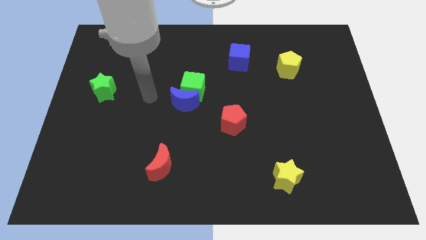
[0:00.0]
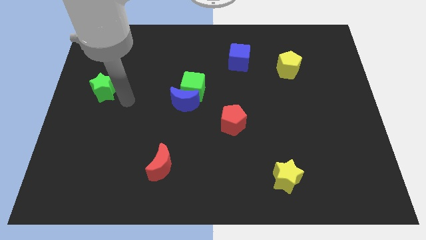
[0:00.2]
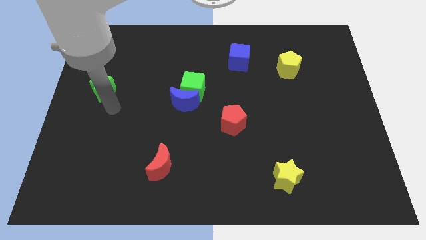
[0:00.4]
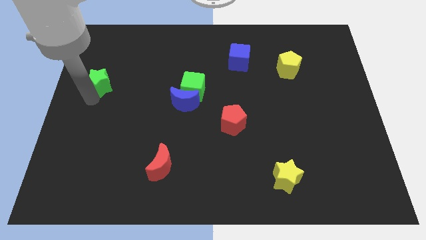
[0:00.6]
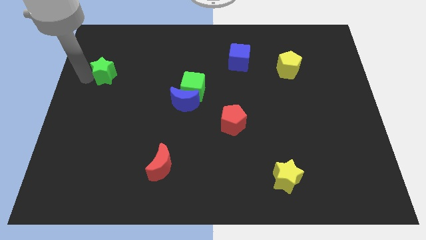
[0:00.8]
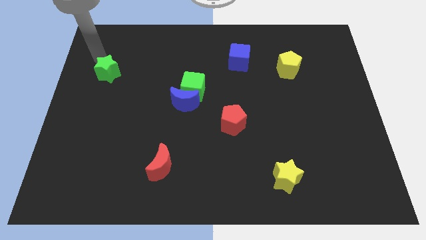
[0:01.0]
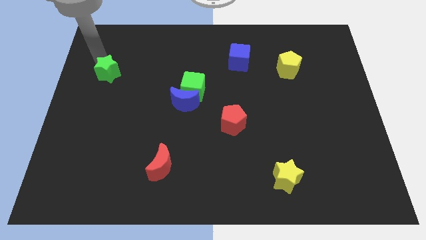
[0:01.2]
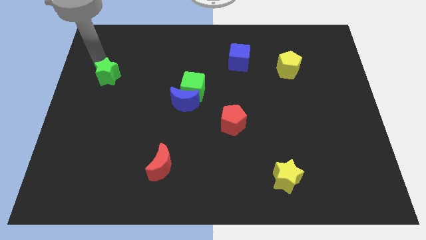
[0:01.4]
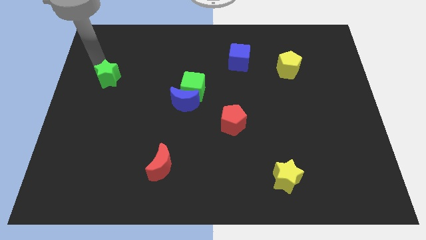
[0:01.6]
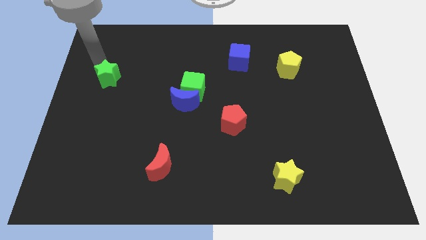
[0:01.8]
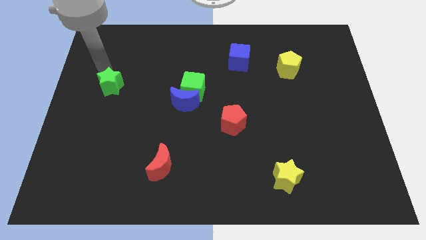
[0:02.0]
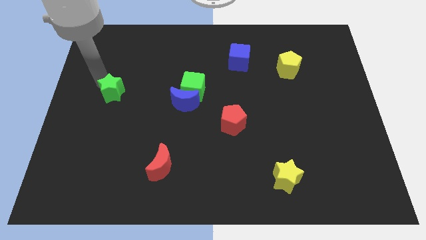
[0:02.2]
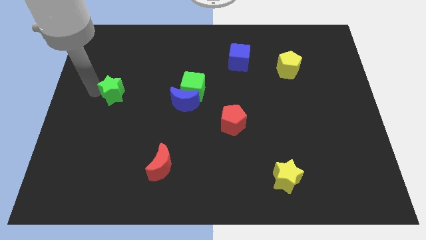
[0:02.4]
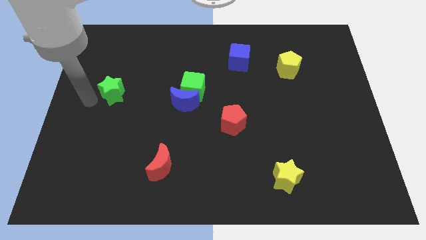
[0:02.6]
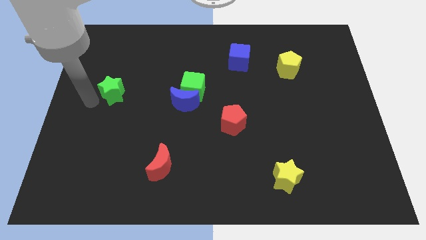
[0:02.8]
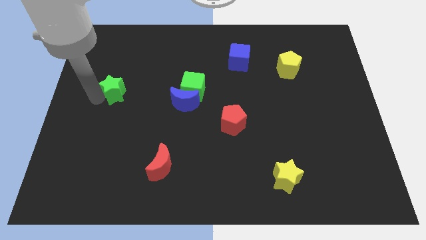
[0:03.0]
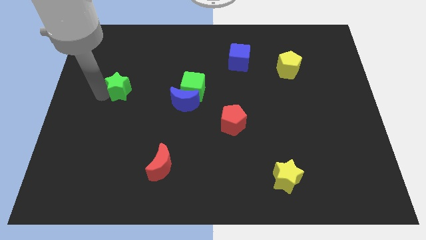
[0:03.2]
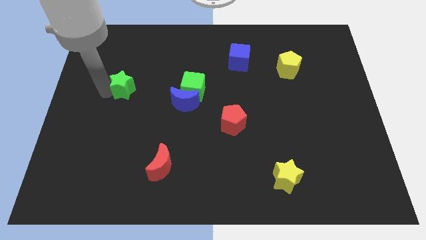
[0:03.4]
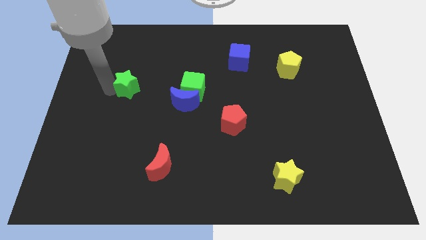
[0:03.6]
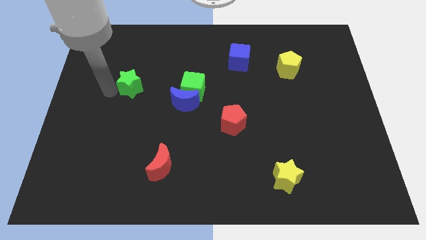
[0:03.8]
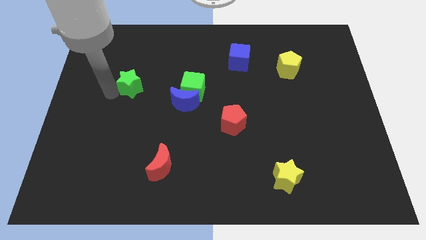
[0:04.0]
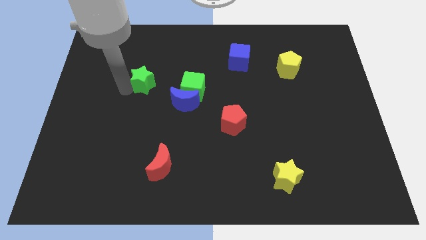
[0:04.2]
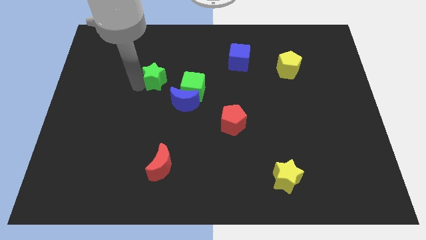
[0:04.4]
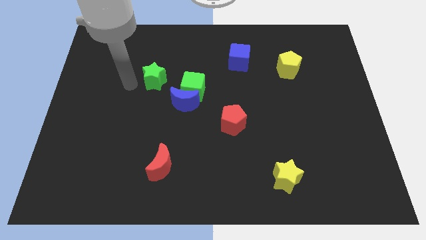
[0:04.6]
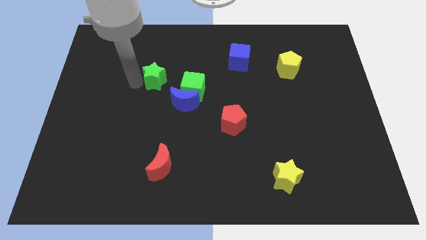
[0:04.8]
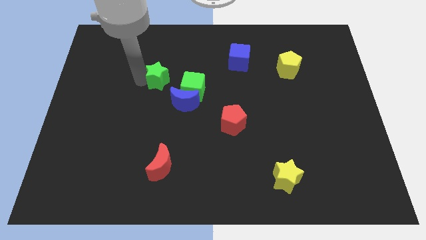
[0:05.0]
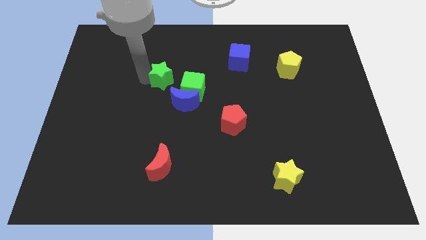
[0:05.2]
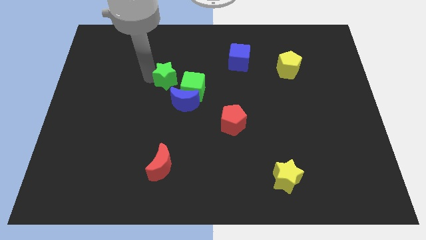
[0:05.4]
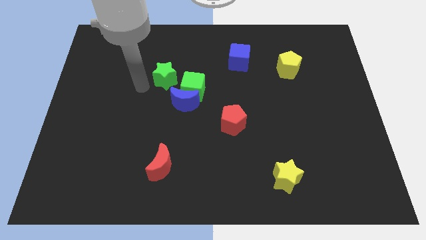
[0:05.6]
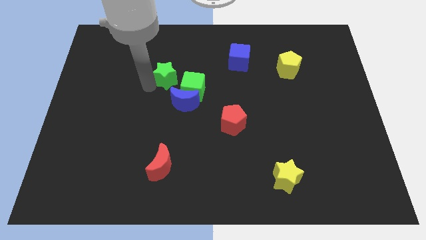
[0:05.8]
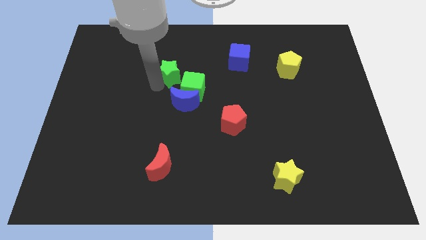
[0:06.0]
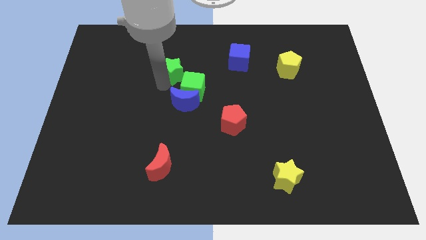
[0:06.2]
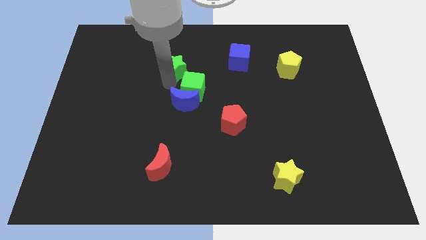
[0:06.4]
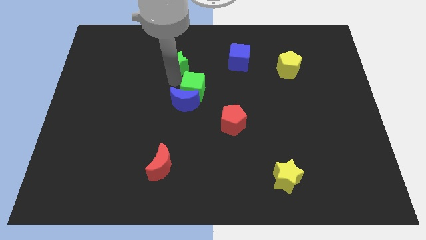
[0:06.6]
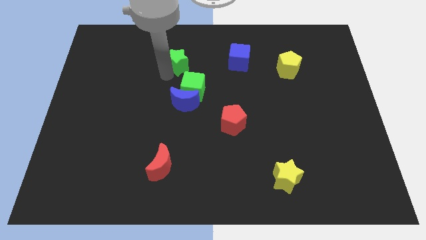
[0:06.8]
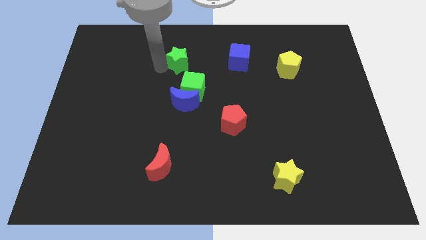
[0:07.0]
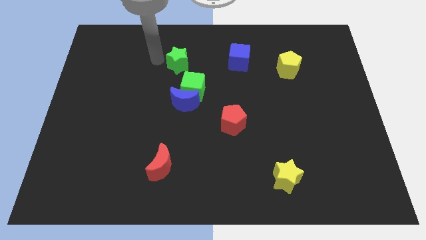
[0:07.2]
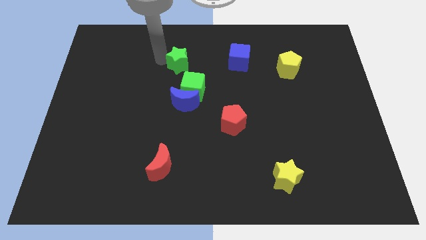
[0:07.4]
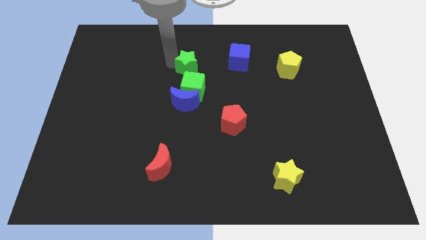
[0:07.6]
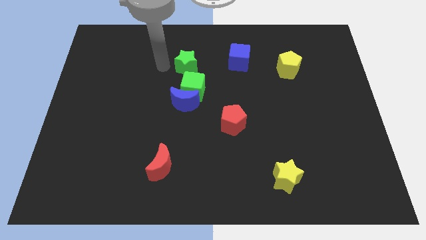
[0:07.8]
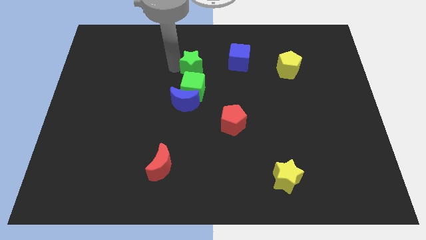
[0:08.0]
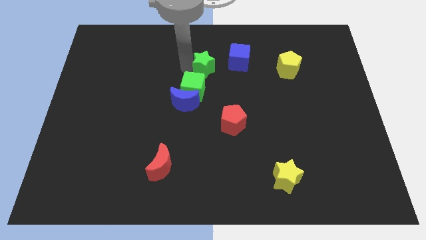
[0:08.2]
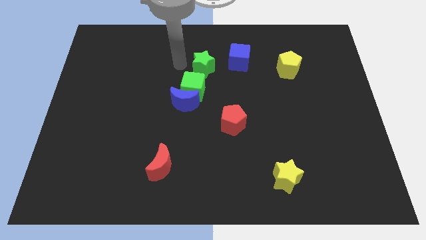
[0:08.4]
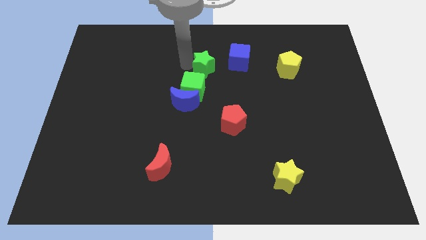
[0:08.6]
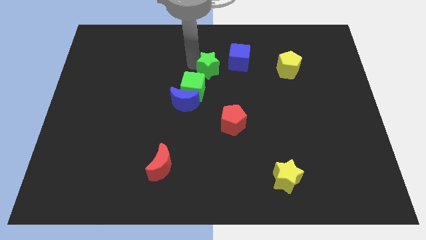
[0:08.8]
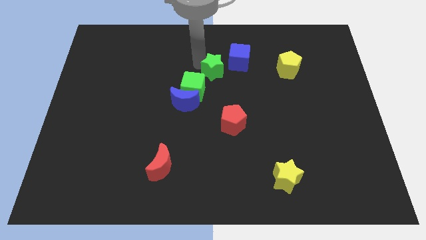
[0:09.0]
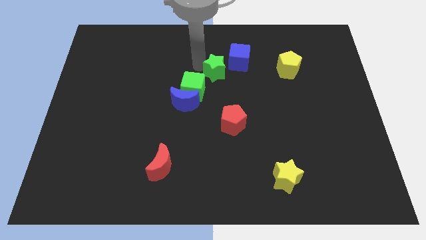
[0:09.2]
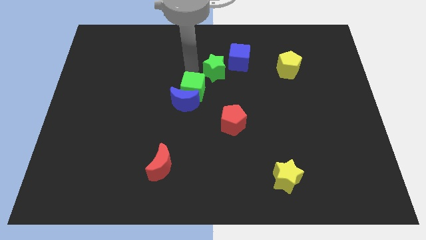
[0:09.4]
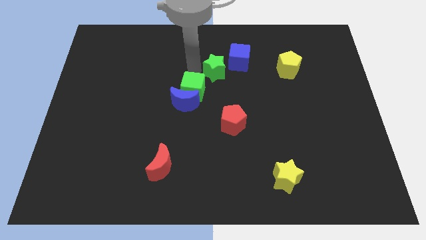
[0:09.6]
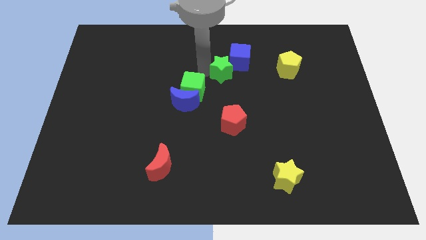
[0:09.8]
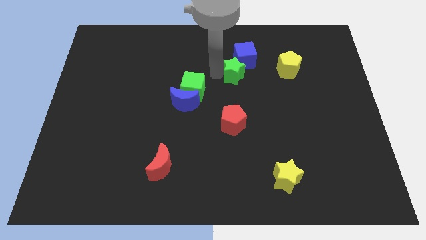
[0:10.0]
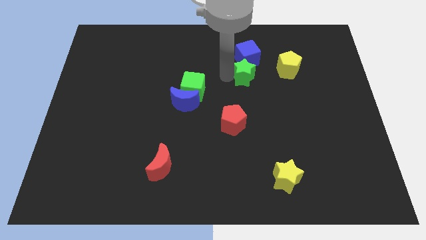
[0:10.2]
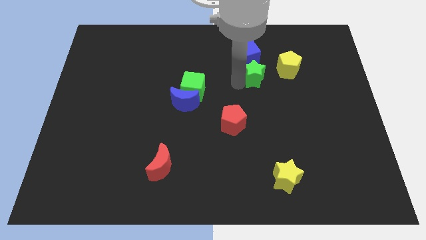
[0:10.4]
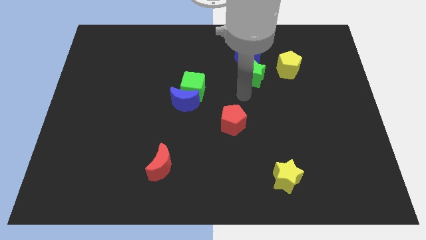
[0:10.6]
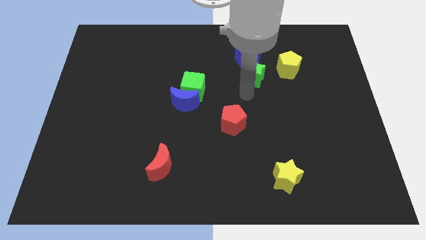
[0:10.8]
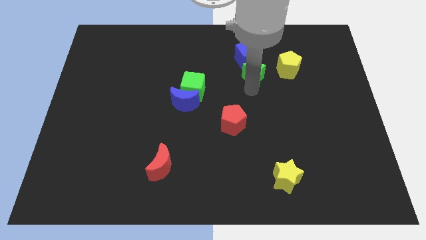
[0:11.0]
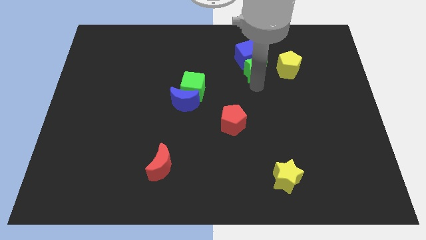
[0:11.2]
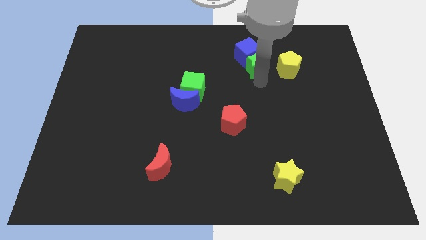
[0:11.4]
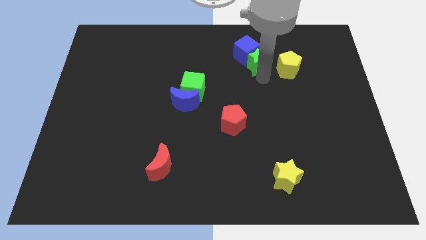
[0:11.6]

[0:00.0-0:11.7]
push the green star to the top left of the yellow pentagon

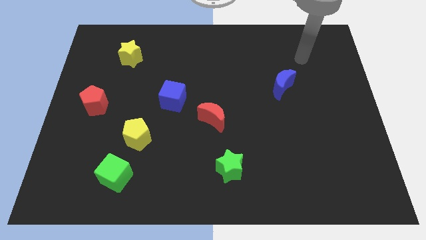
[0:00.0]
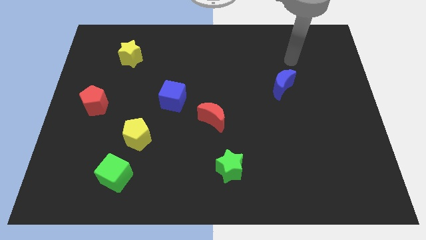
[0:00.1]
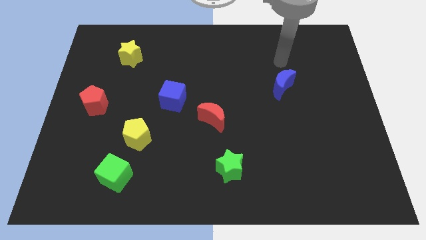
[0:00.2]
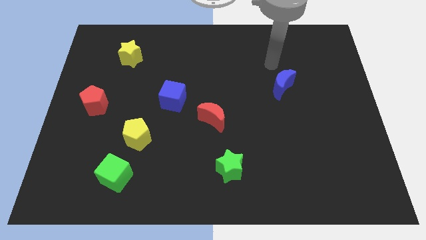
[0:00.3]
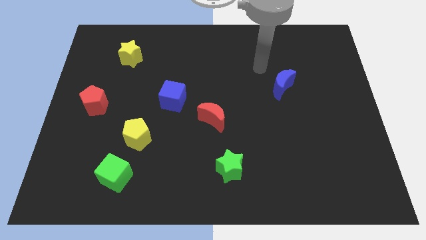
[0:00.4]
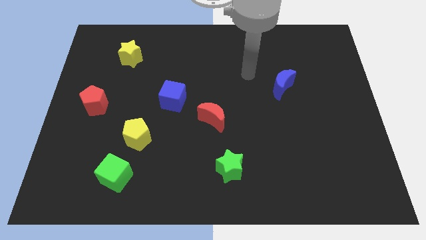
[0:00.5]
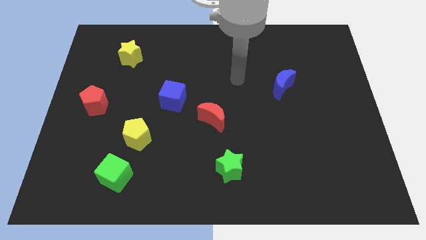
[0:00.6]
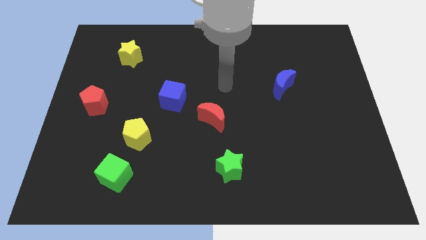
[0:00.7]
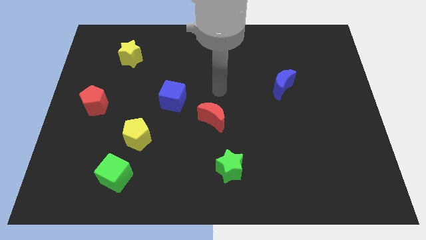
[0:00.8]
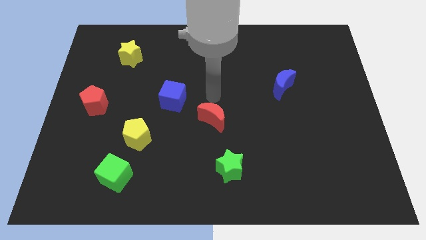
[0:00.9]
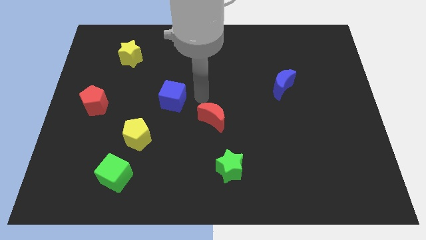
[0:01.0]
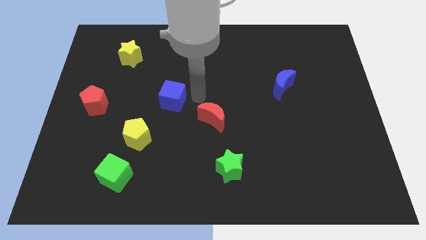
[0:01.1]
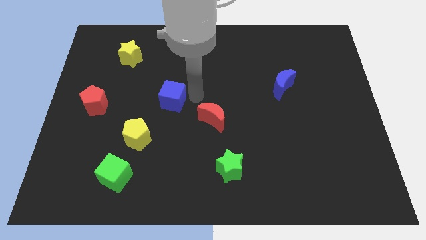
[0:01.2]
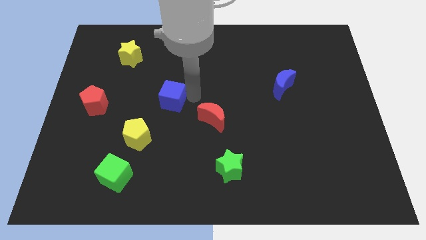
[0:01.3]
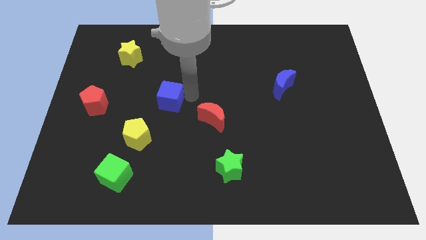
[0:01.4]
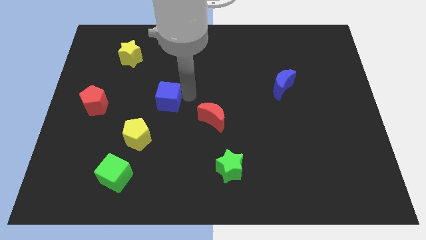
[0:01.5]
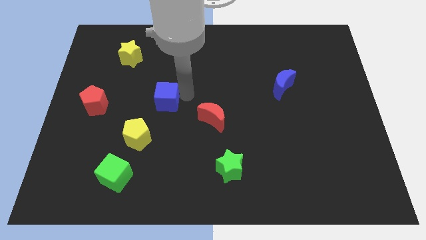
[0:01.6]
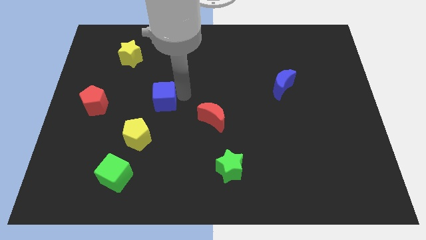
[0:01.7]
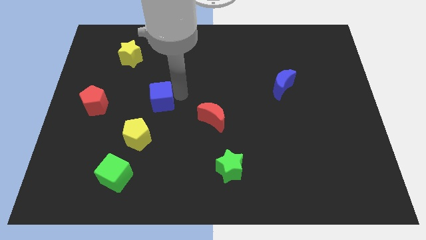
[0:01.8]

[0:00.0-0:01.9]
put the blue cube to the right side of the red pentagon
